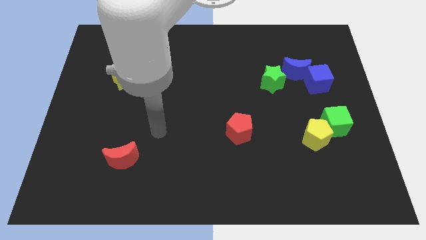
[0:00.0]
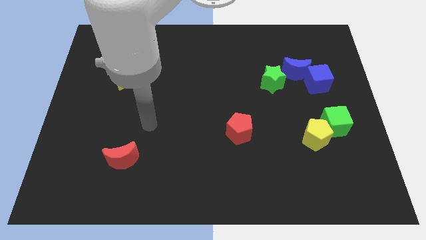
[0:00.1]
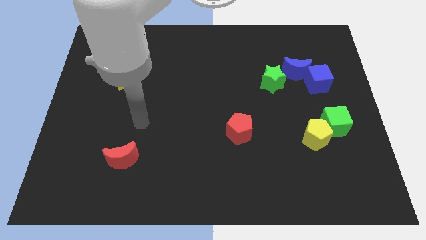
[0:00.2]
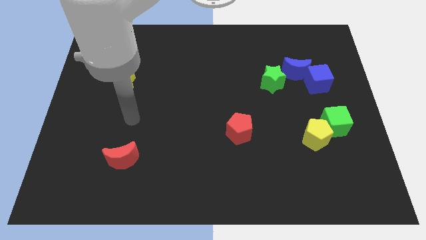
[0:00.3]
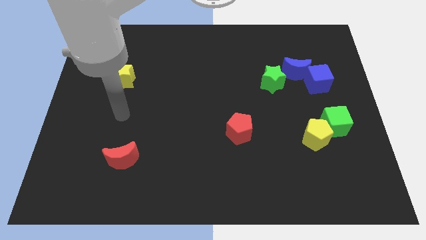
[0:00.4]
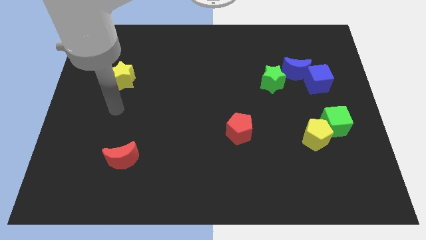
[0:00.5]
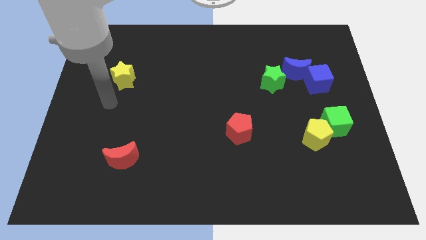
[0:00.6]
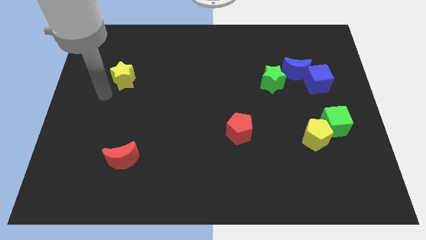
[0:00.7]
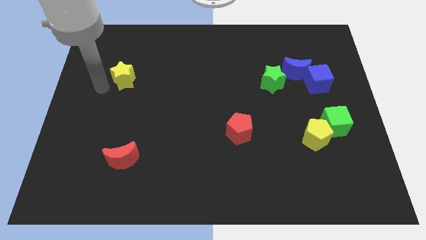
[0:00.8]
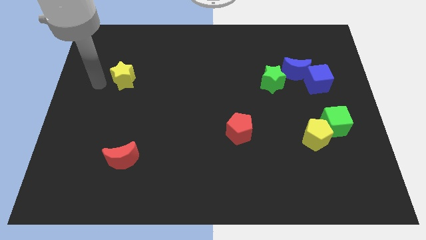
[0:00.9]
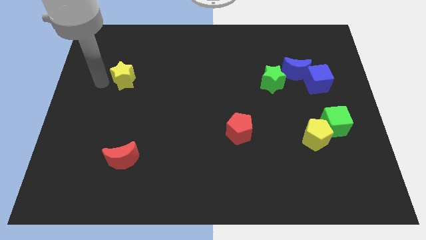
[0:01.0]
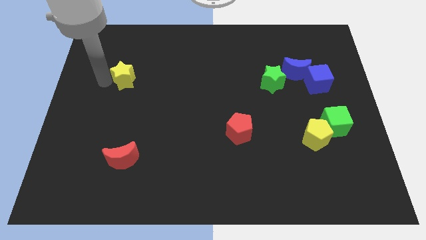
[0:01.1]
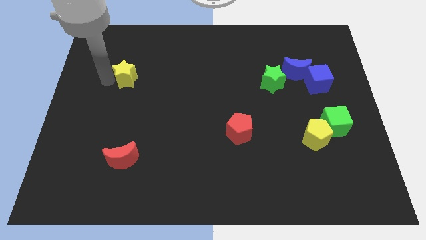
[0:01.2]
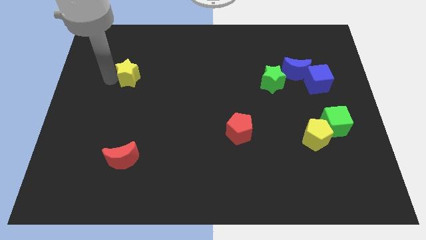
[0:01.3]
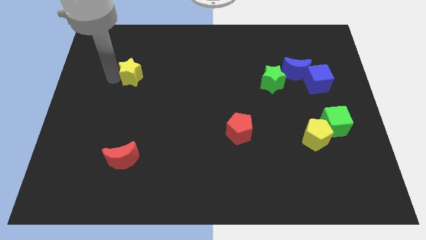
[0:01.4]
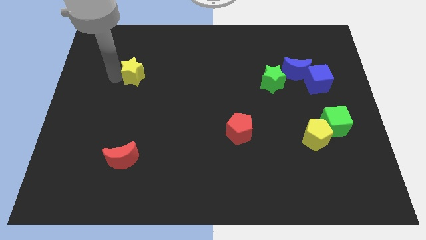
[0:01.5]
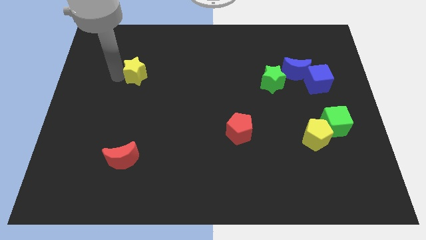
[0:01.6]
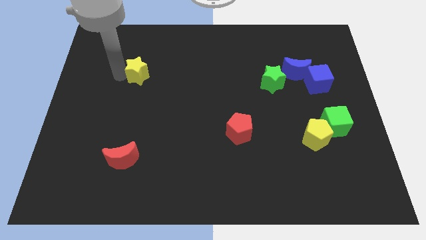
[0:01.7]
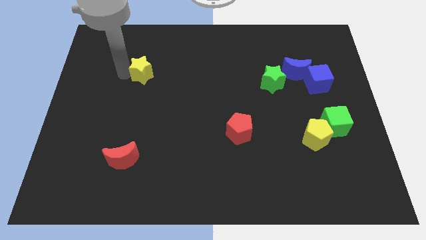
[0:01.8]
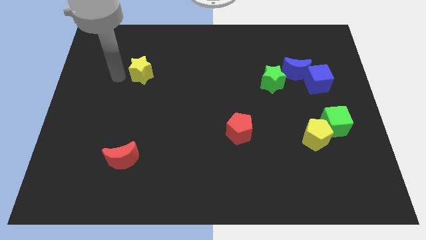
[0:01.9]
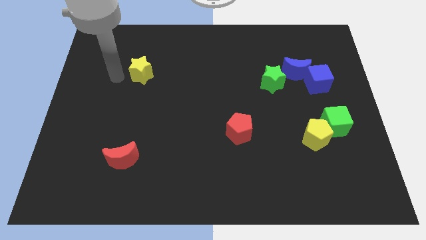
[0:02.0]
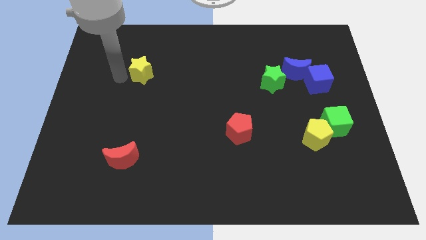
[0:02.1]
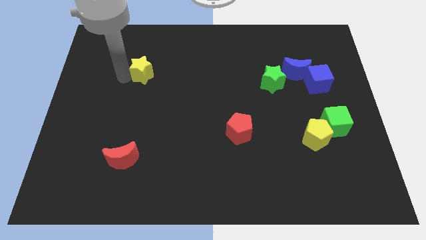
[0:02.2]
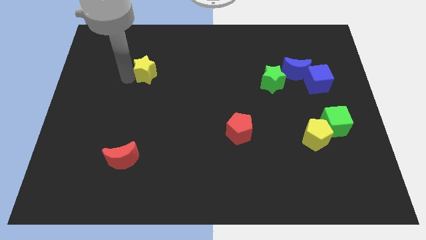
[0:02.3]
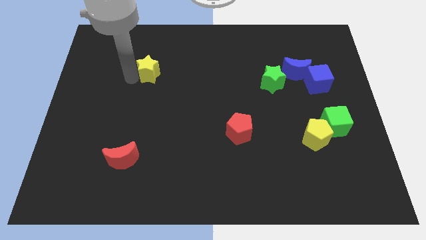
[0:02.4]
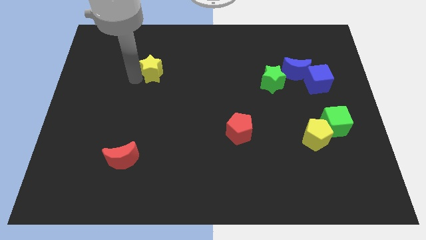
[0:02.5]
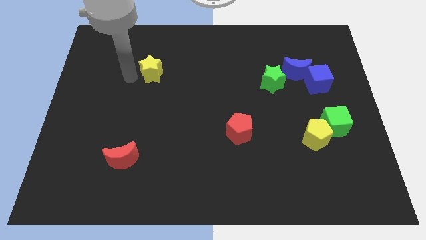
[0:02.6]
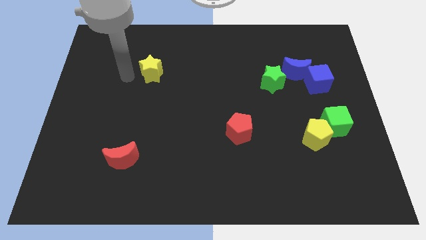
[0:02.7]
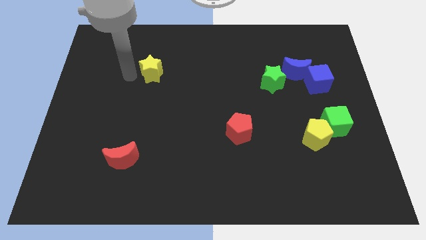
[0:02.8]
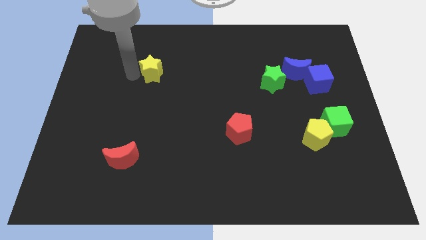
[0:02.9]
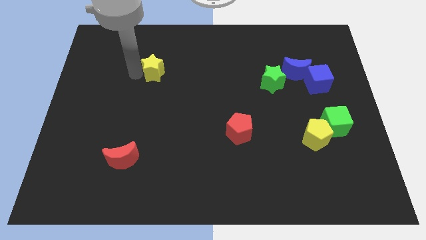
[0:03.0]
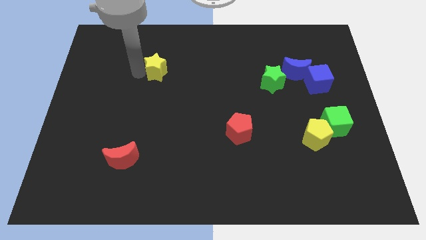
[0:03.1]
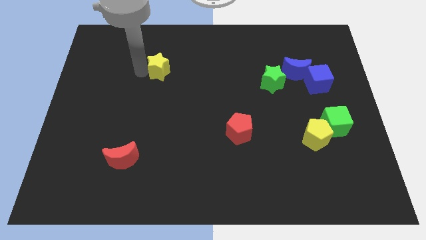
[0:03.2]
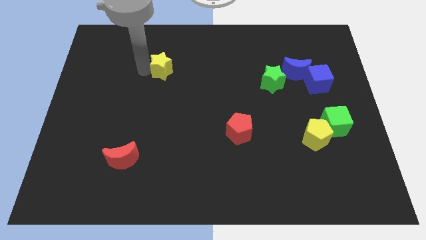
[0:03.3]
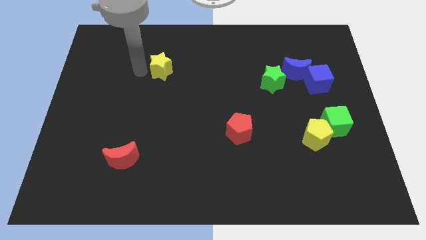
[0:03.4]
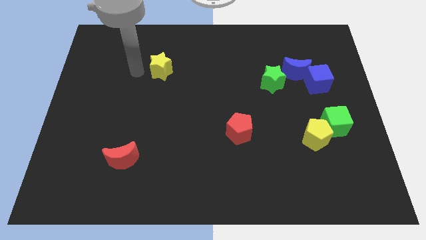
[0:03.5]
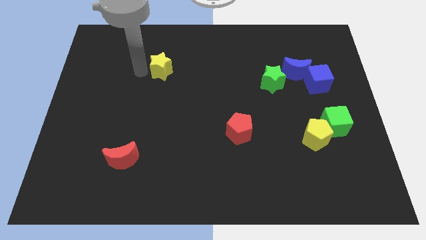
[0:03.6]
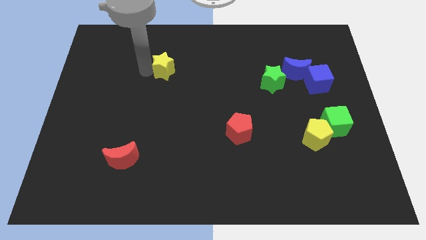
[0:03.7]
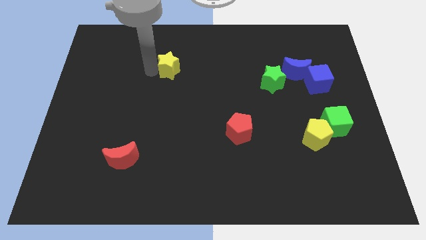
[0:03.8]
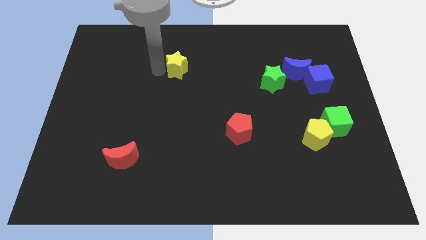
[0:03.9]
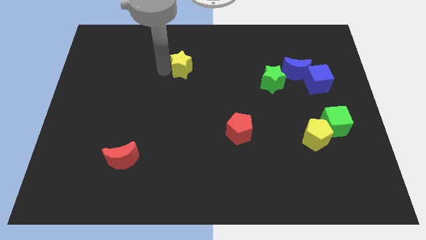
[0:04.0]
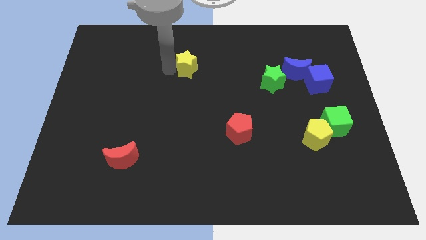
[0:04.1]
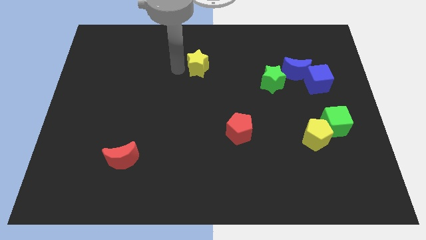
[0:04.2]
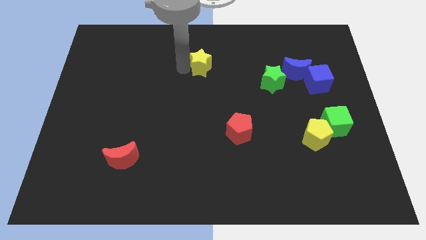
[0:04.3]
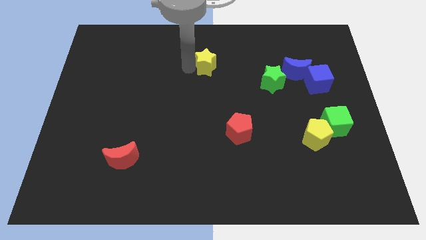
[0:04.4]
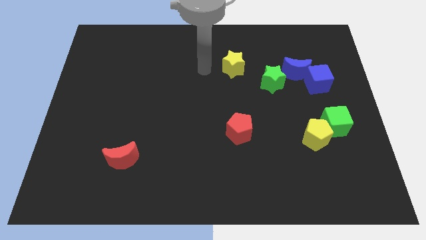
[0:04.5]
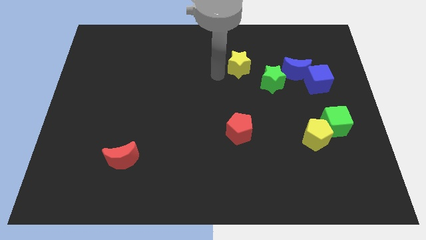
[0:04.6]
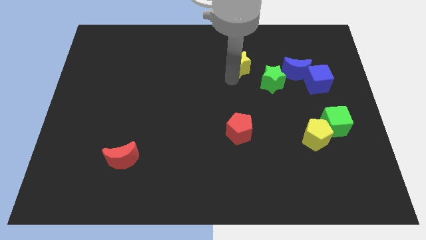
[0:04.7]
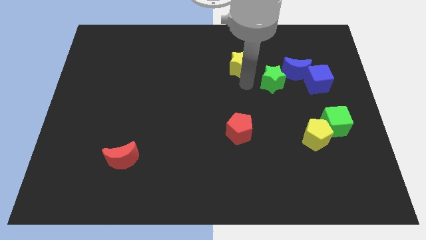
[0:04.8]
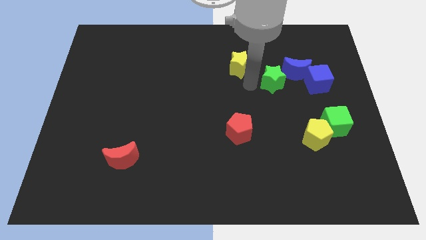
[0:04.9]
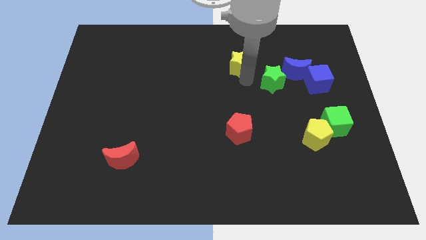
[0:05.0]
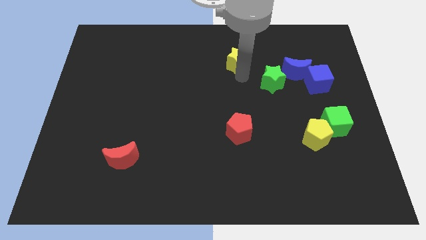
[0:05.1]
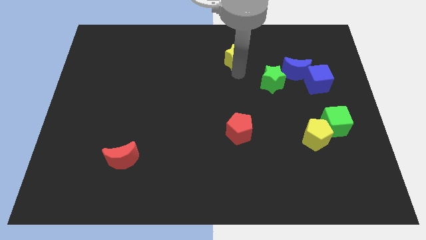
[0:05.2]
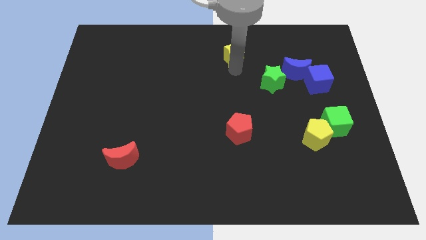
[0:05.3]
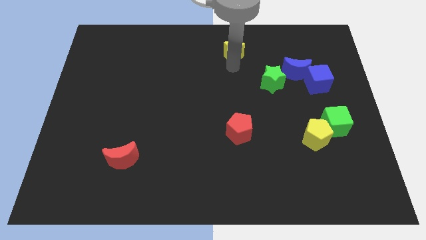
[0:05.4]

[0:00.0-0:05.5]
slide the yellow star to the towards your base
